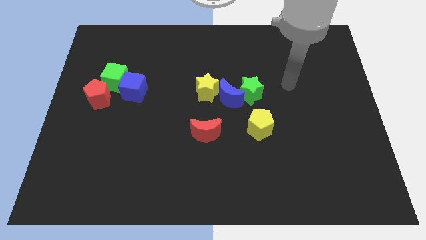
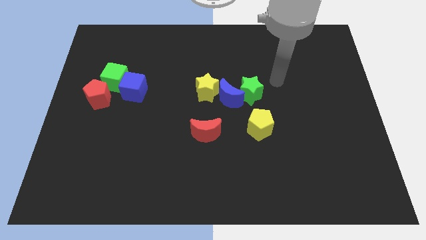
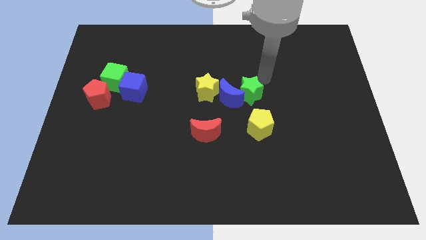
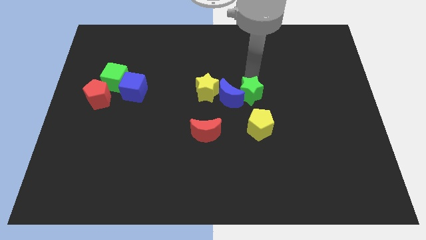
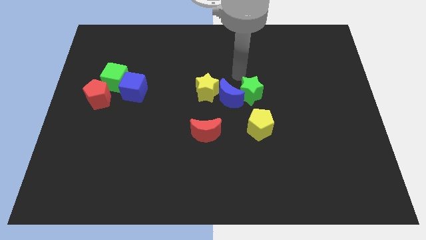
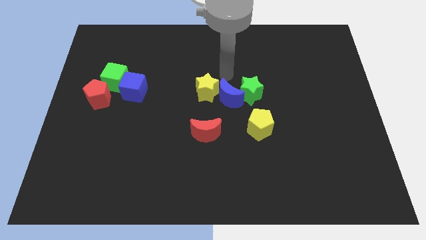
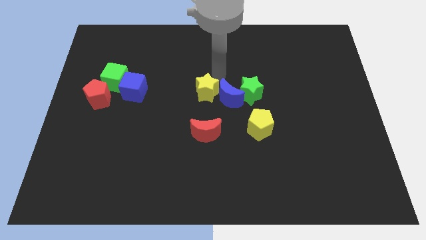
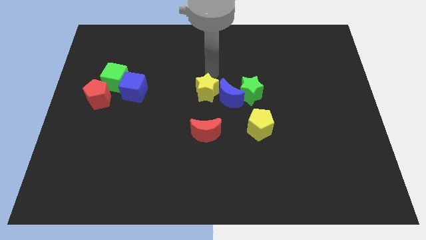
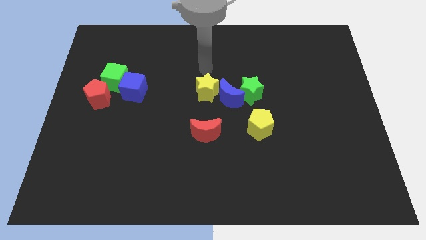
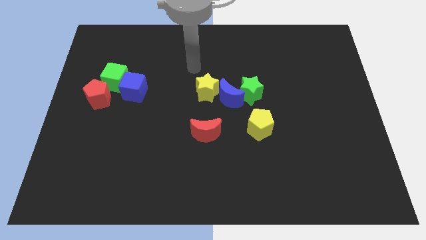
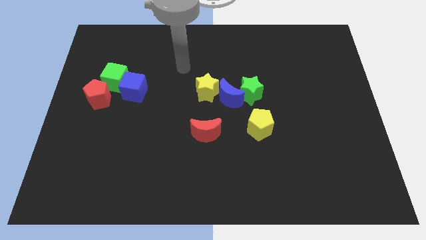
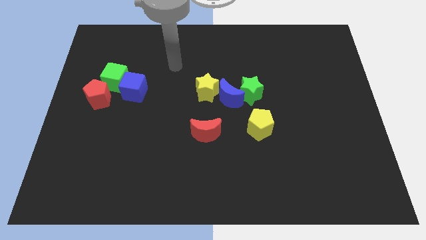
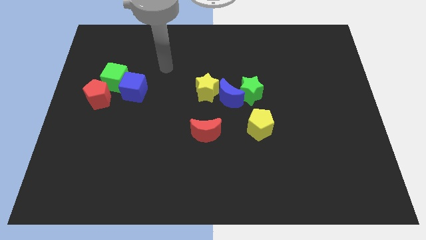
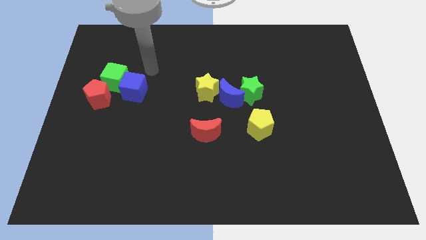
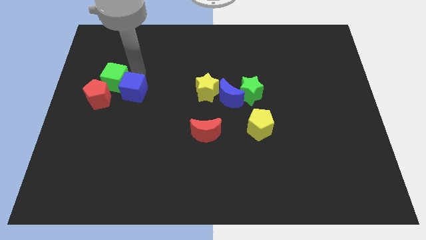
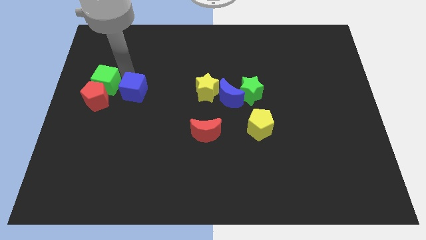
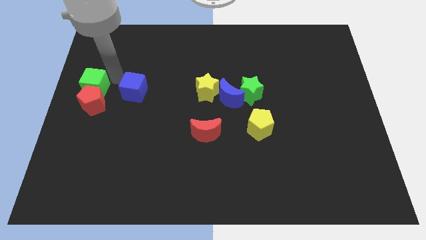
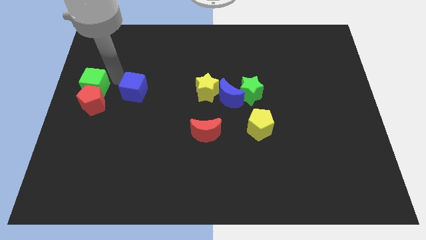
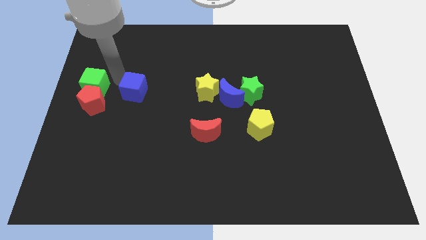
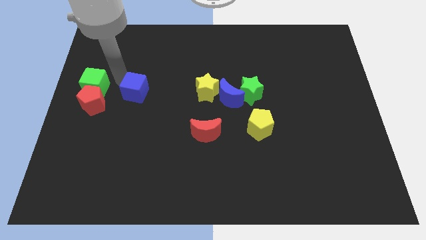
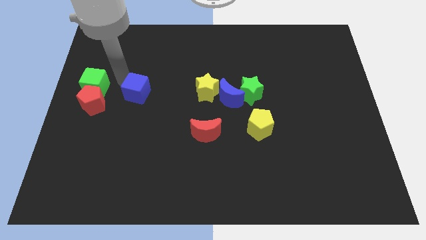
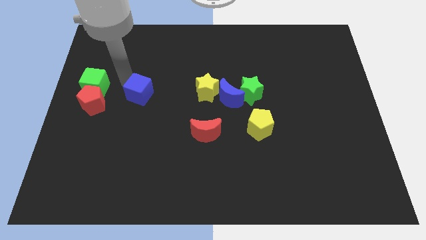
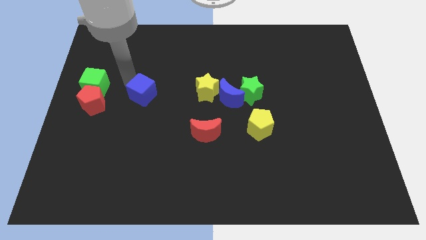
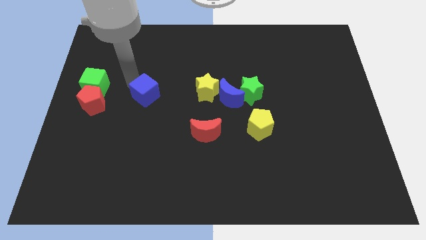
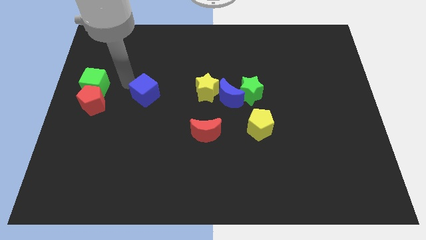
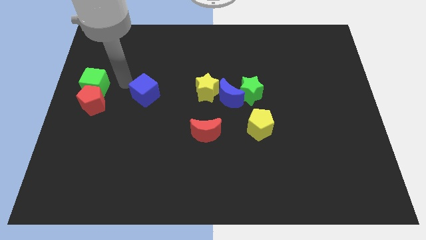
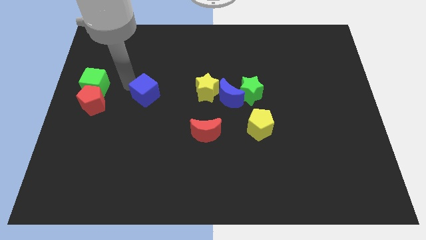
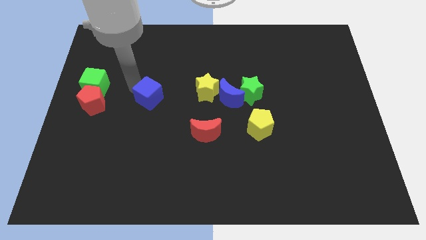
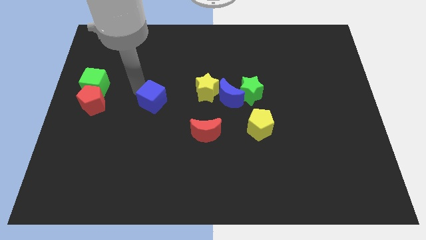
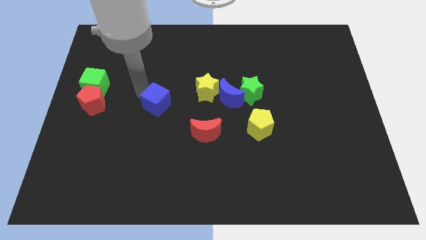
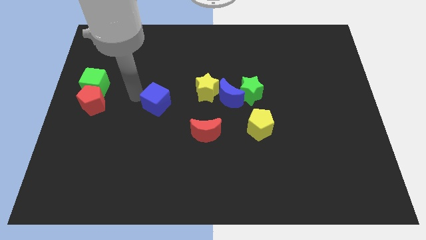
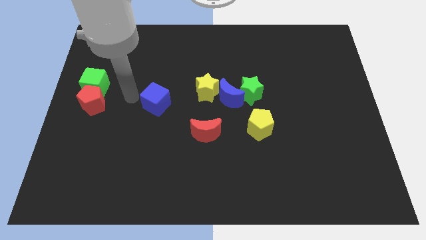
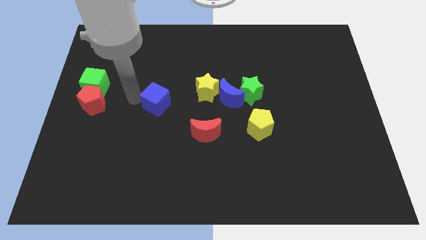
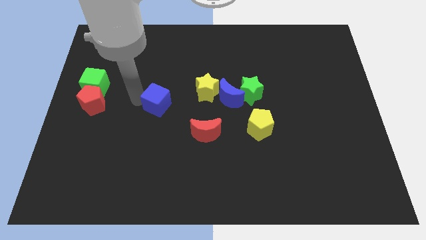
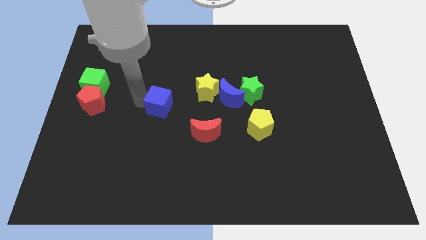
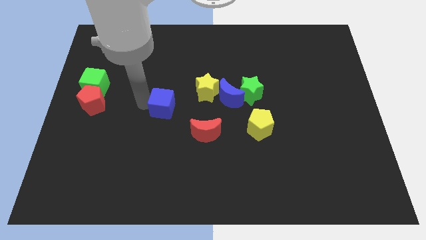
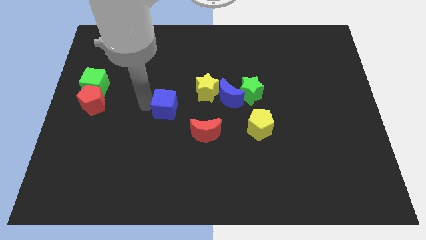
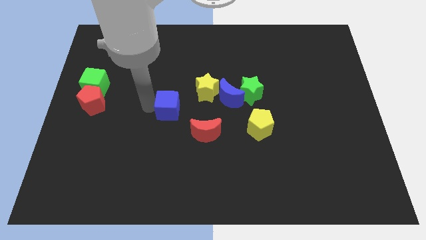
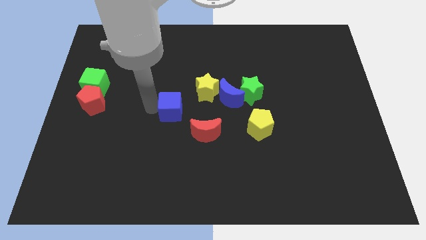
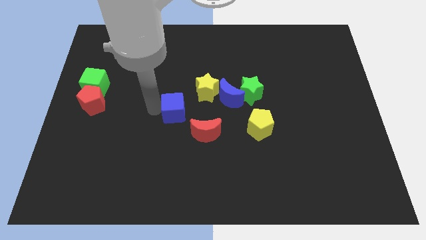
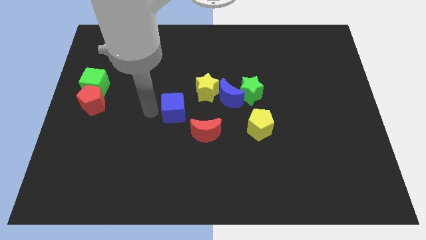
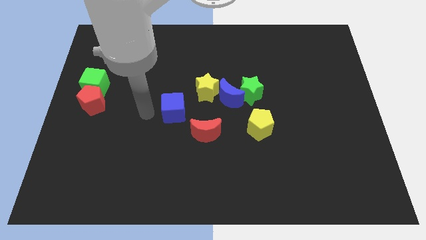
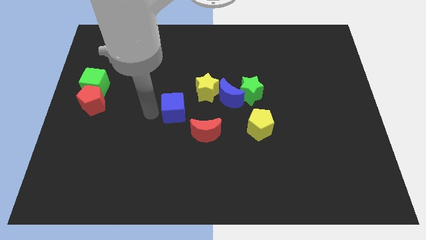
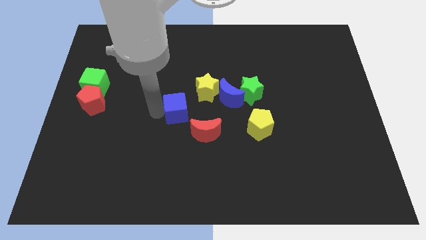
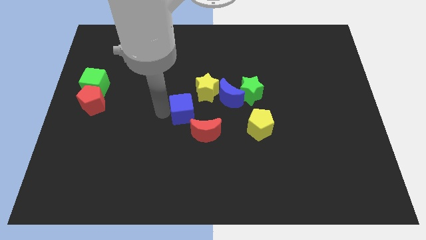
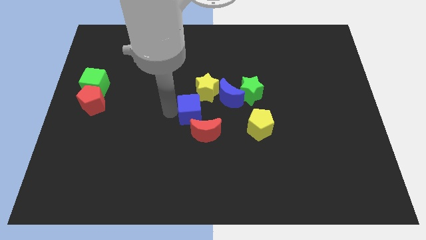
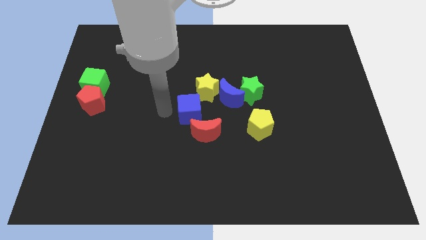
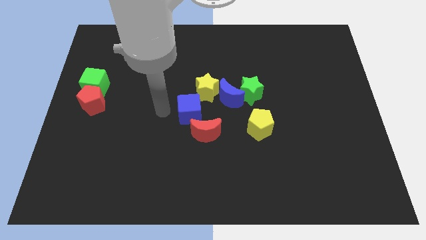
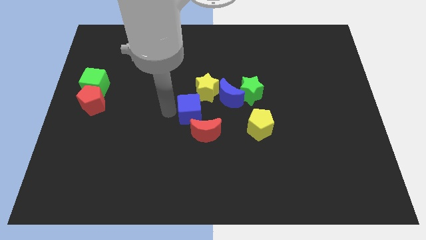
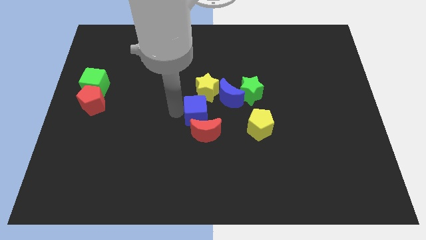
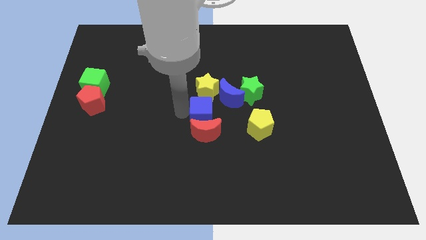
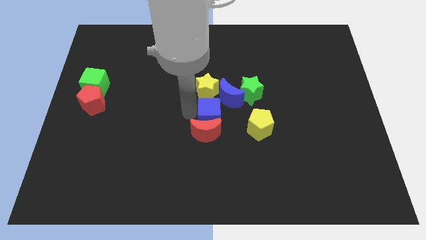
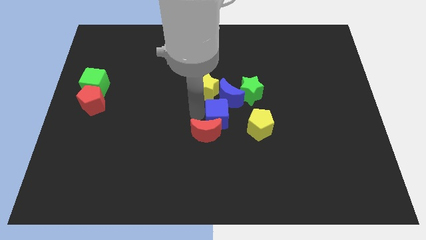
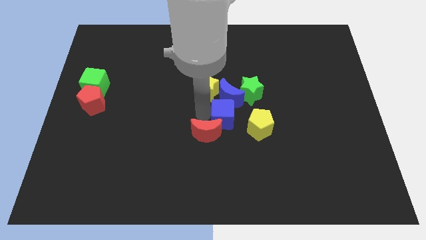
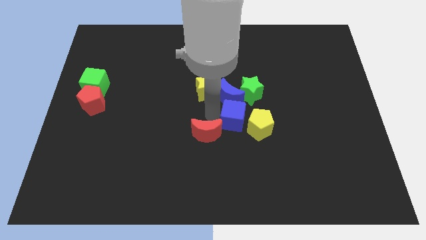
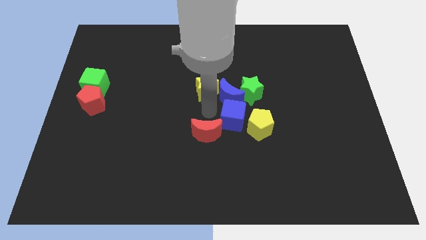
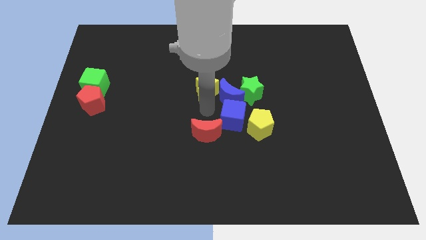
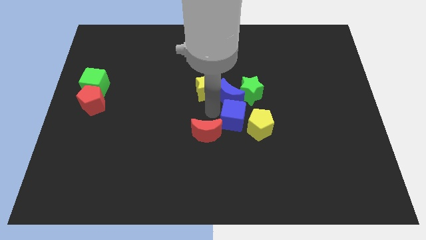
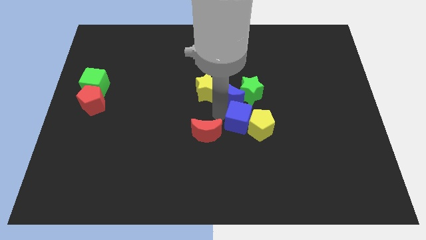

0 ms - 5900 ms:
move the blue cube close to the yellow pentagon

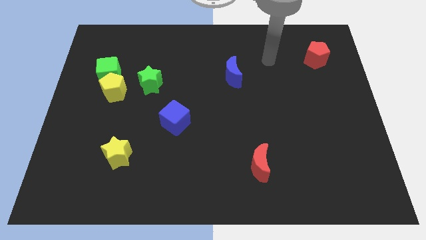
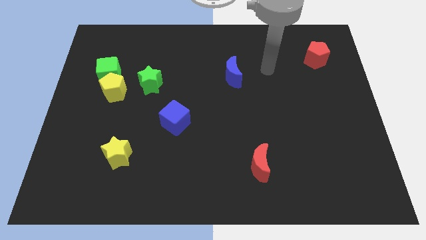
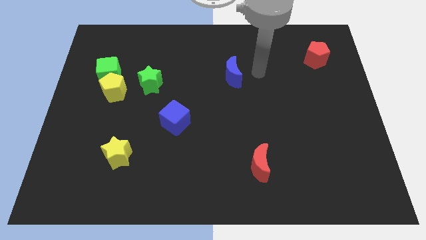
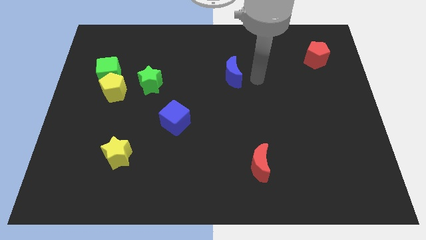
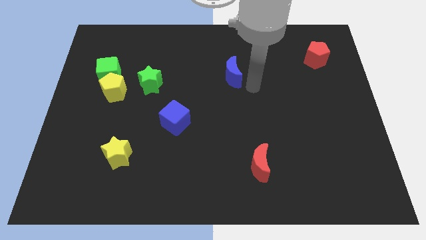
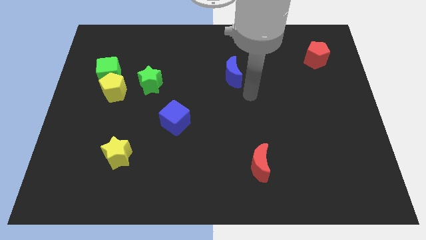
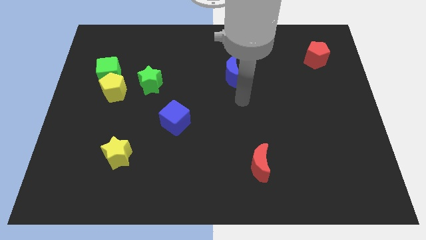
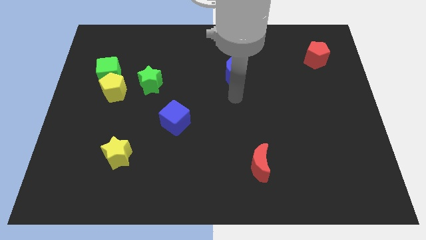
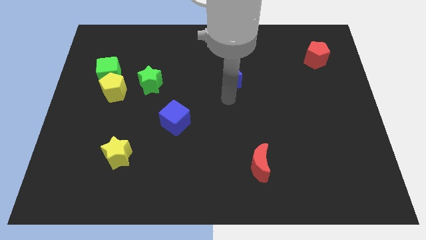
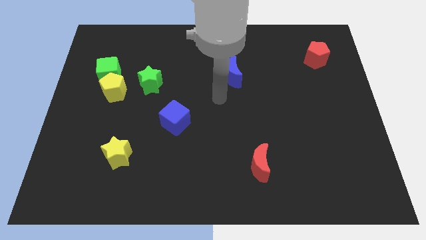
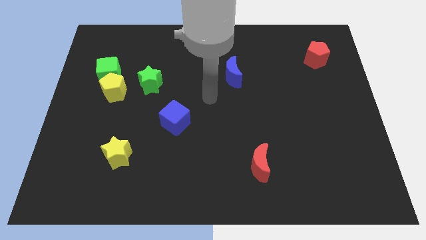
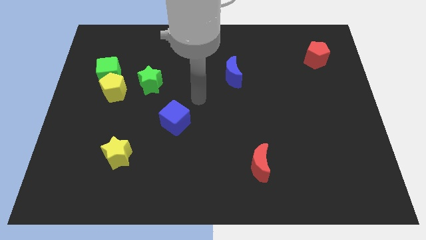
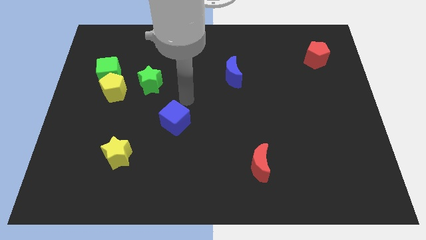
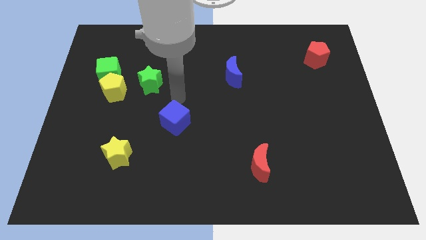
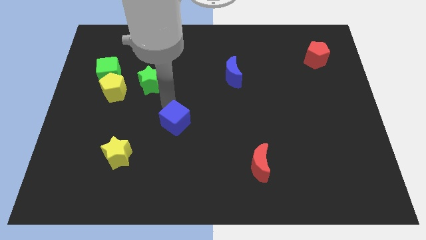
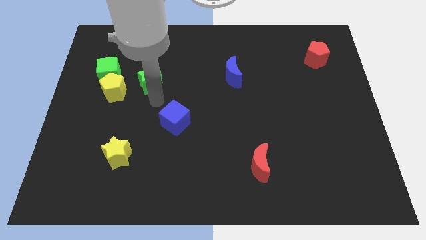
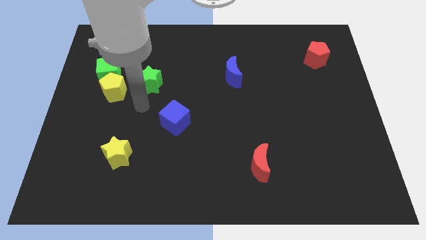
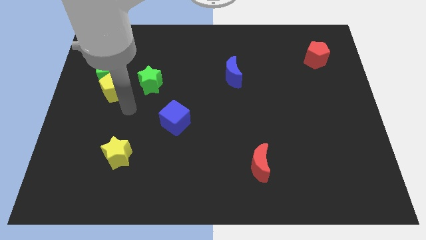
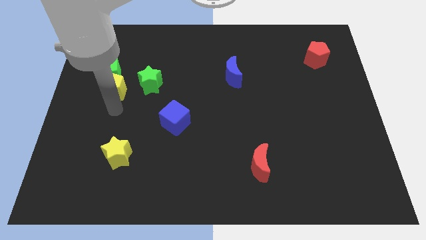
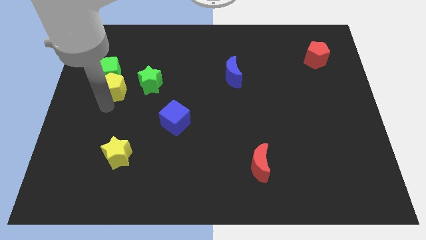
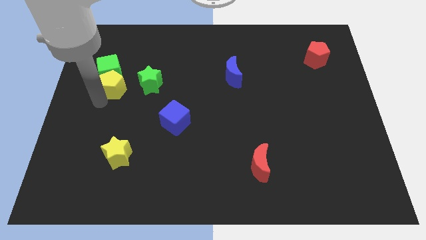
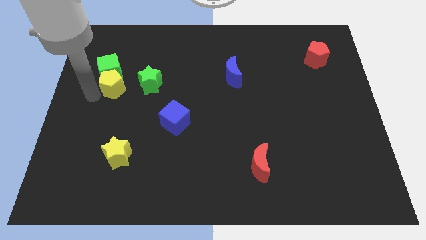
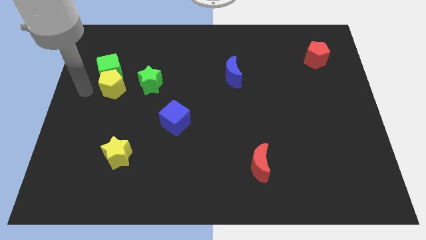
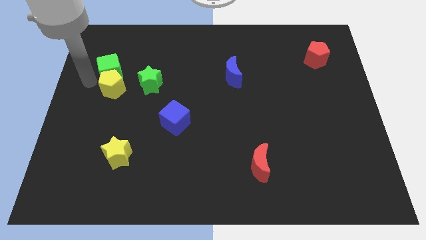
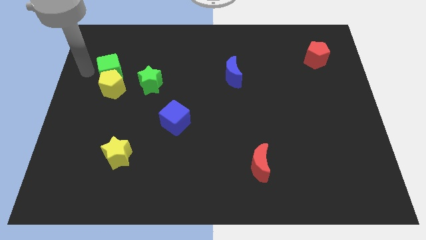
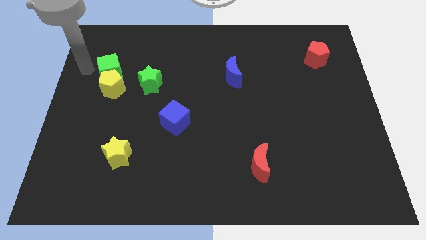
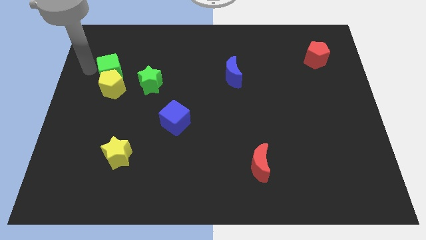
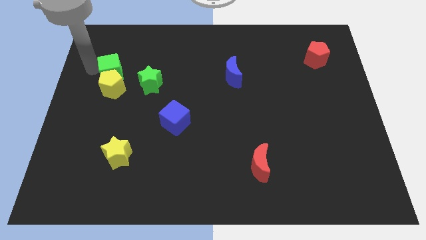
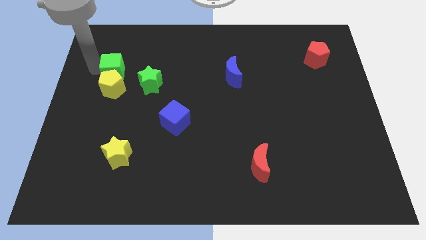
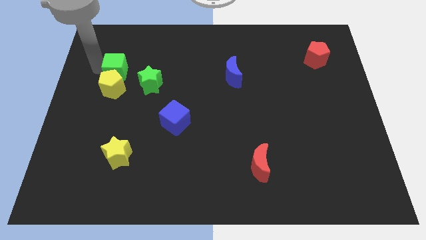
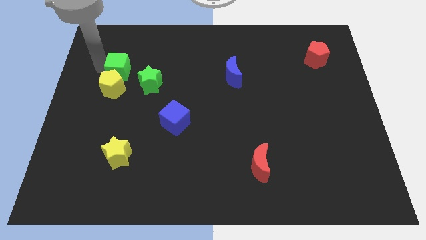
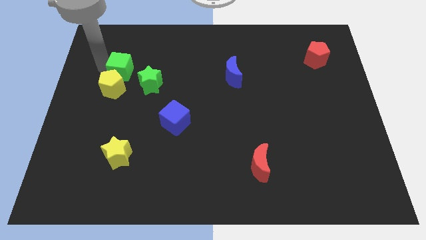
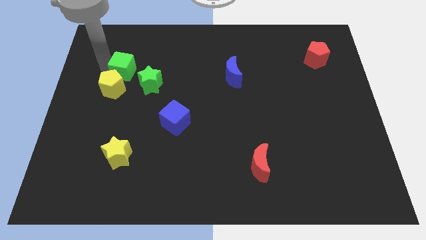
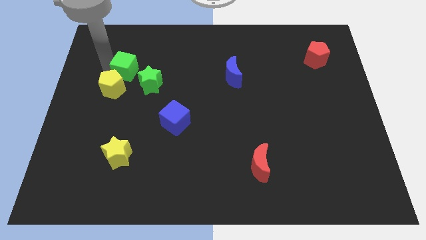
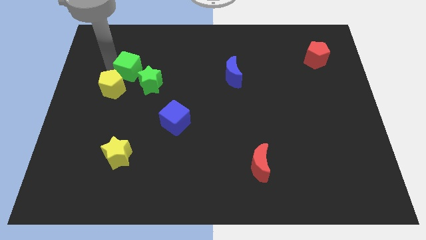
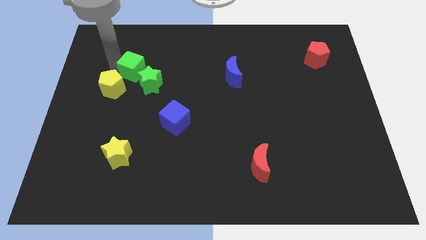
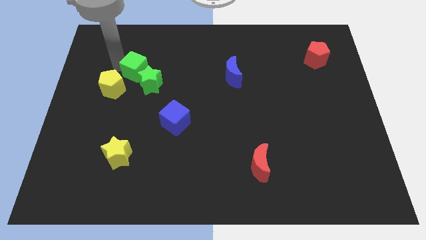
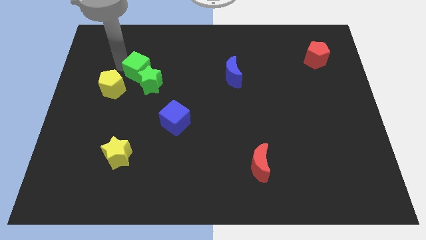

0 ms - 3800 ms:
put the green cube to the green star
